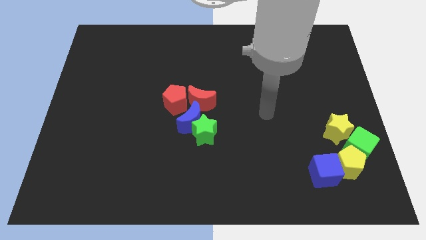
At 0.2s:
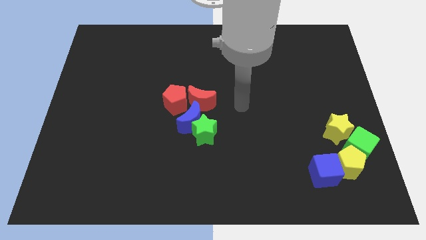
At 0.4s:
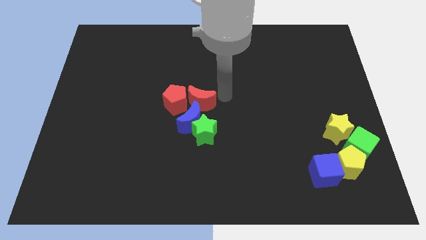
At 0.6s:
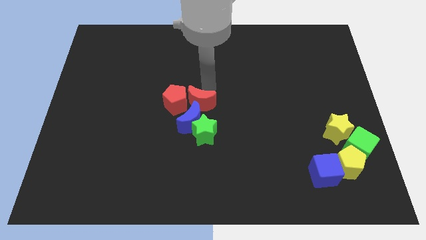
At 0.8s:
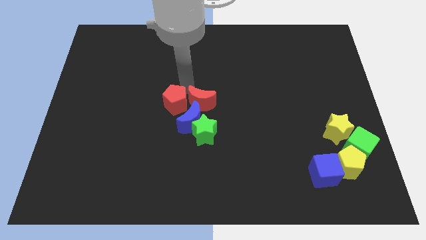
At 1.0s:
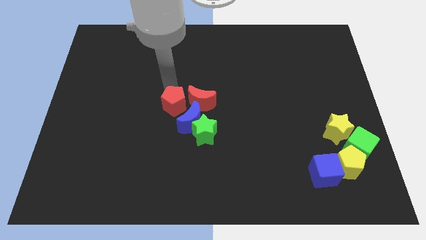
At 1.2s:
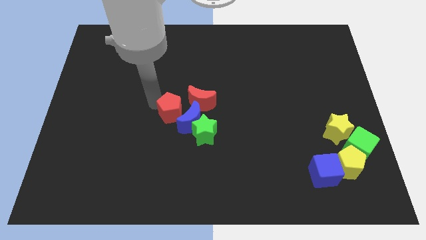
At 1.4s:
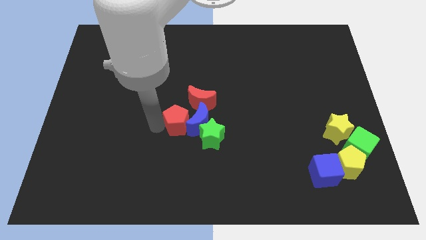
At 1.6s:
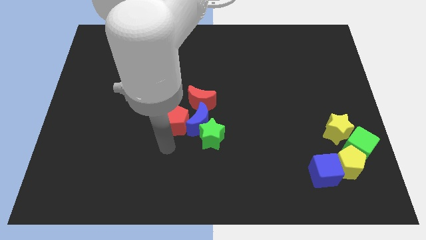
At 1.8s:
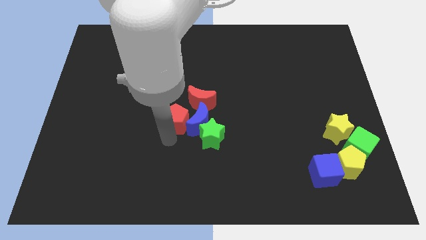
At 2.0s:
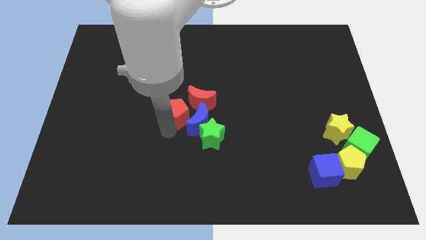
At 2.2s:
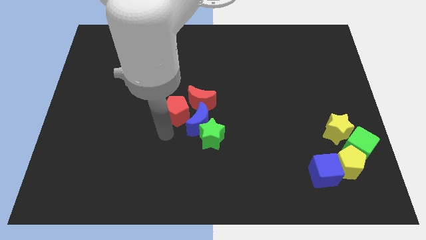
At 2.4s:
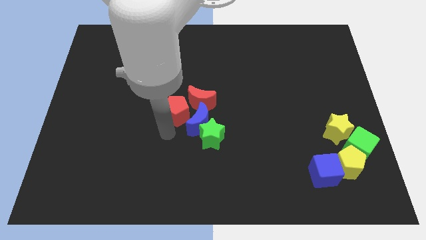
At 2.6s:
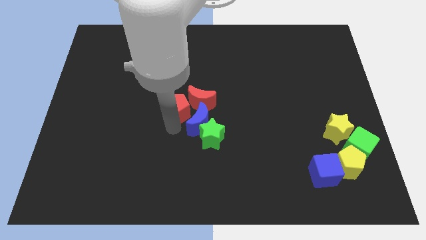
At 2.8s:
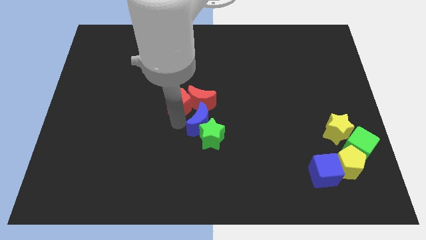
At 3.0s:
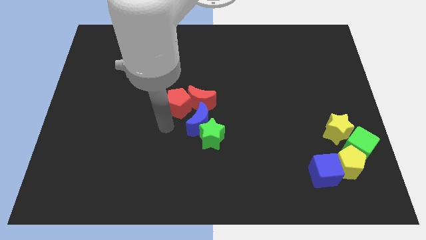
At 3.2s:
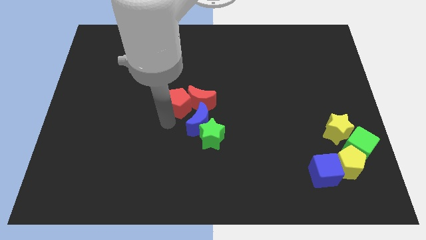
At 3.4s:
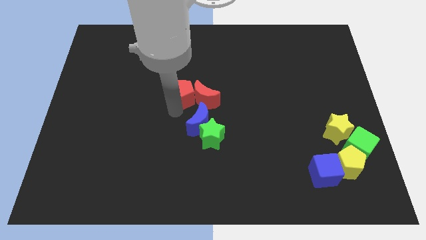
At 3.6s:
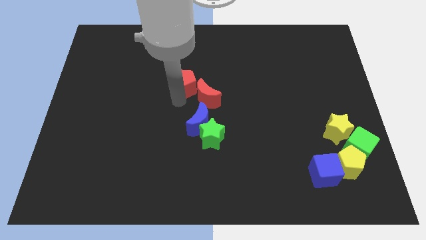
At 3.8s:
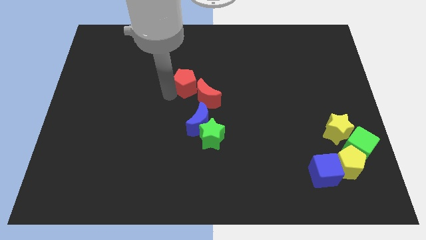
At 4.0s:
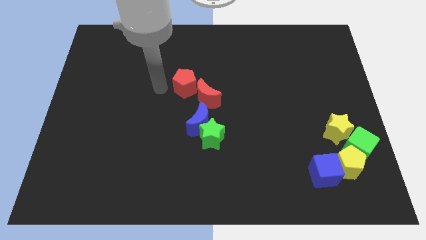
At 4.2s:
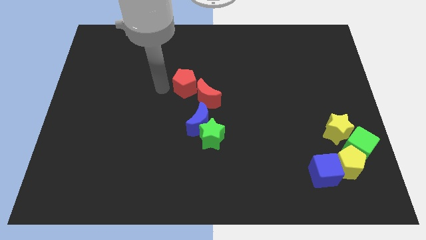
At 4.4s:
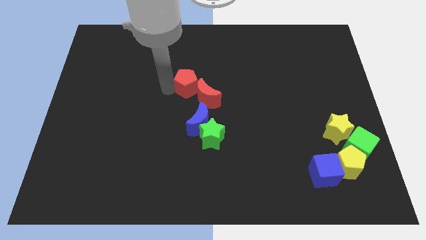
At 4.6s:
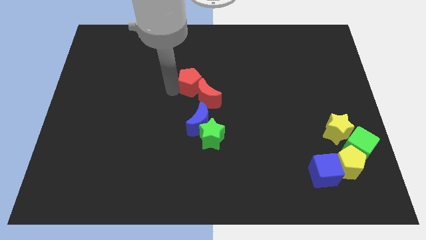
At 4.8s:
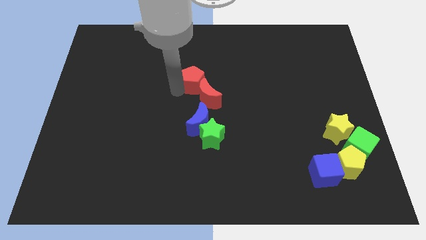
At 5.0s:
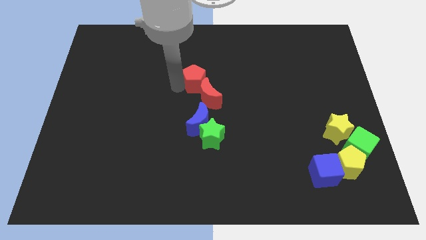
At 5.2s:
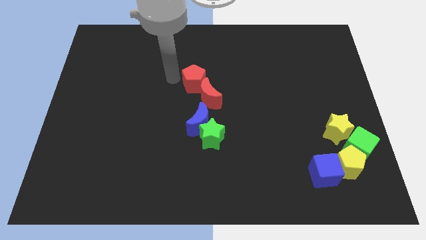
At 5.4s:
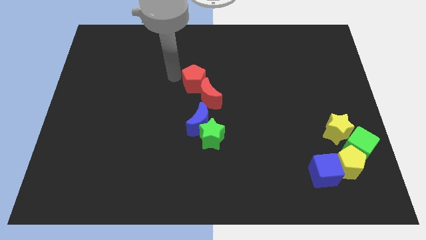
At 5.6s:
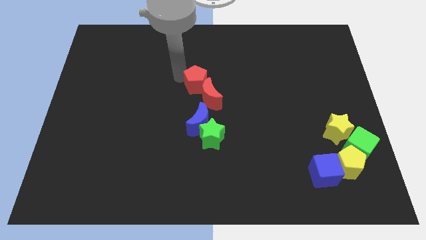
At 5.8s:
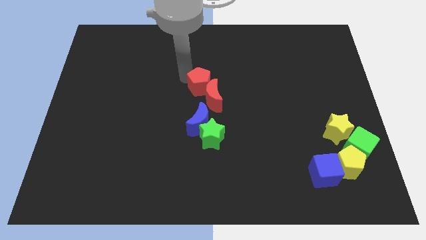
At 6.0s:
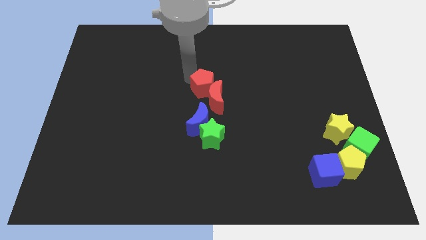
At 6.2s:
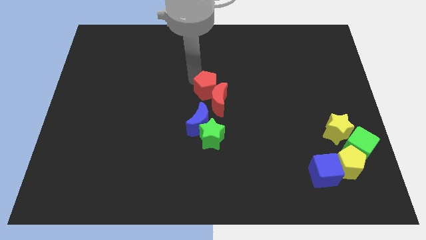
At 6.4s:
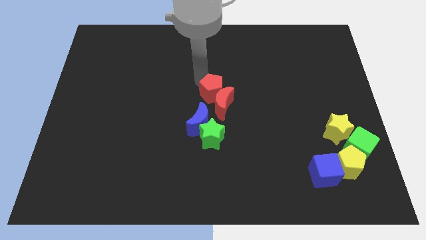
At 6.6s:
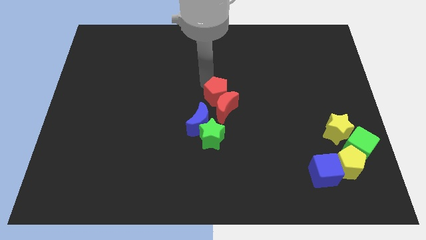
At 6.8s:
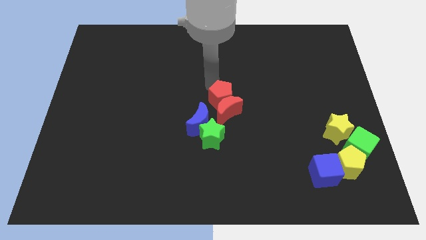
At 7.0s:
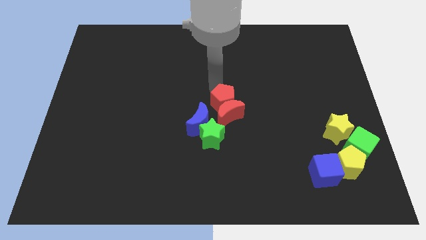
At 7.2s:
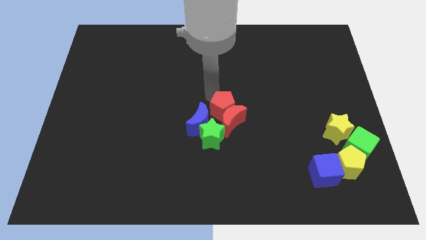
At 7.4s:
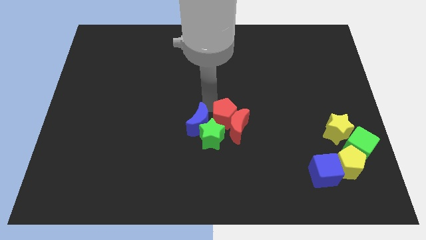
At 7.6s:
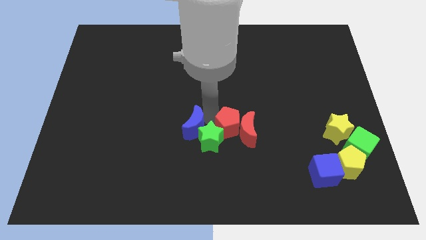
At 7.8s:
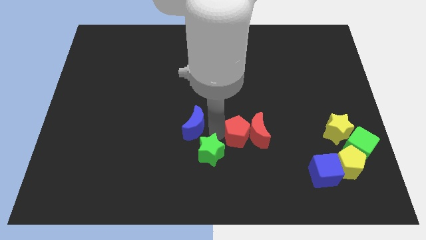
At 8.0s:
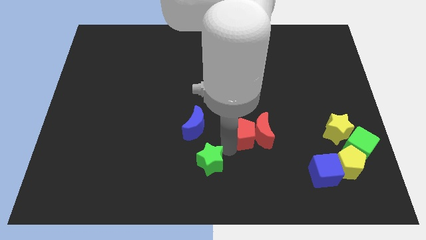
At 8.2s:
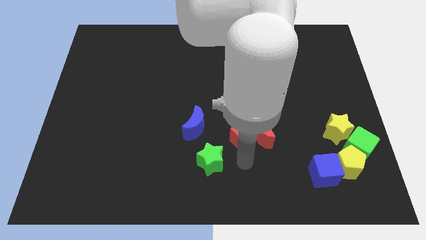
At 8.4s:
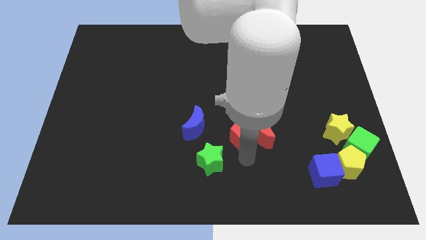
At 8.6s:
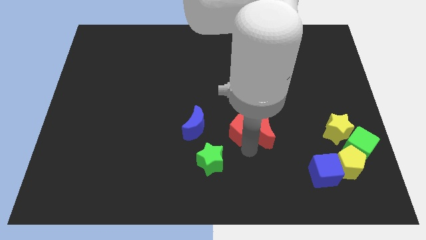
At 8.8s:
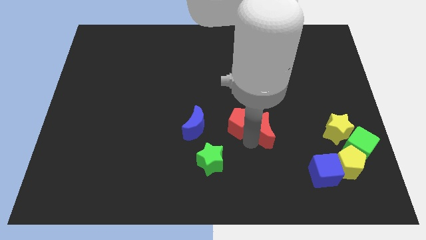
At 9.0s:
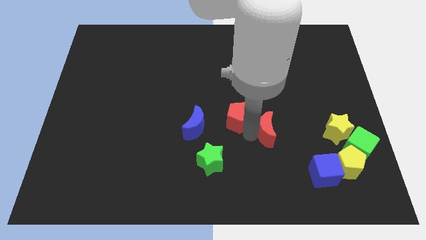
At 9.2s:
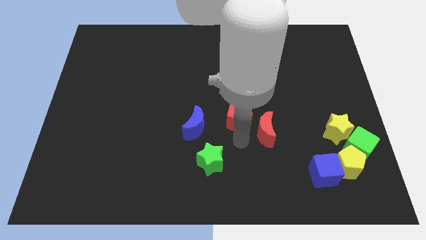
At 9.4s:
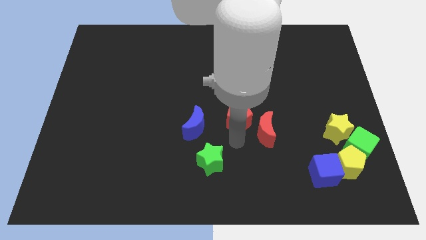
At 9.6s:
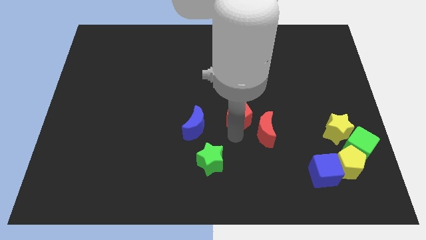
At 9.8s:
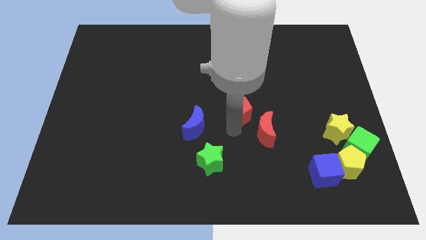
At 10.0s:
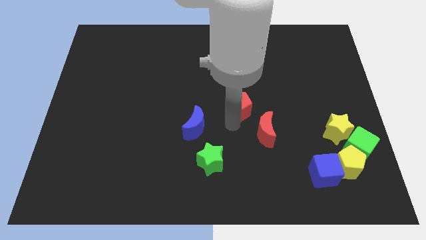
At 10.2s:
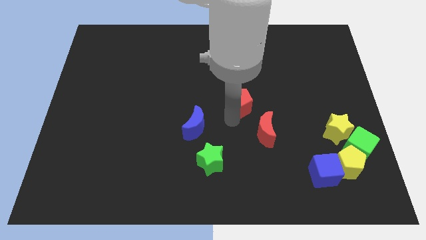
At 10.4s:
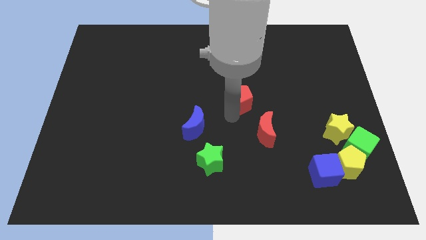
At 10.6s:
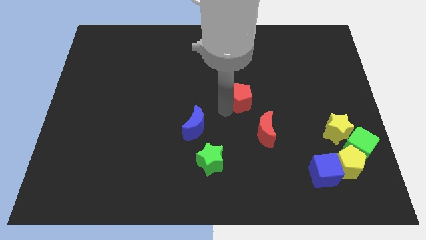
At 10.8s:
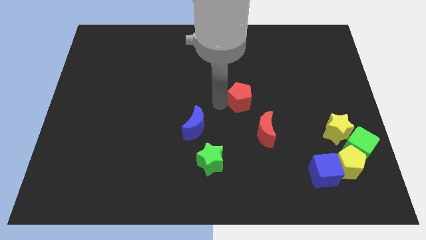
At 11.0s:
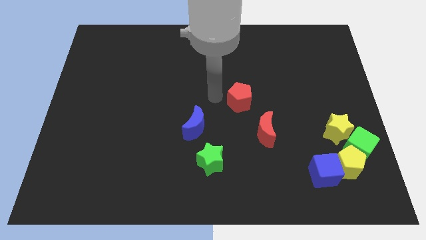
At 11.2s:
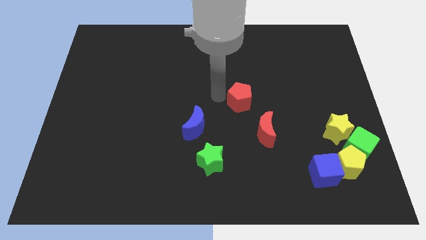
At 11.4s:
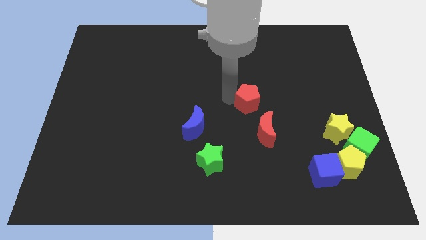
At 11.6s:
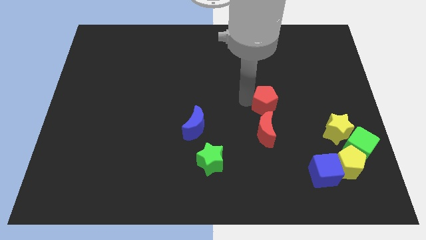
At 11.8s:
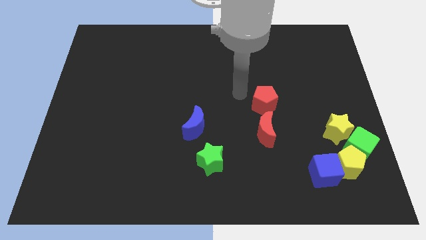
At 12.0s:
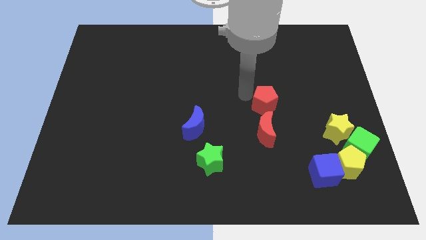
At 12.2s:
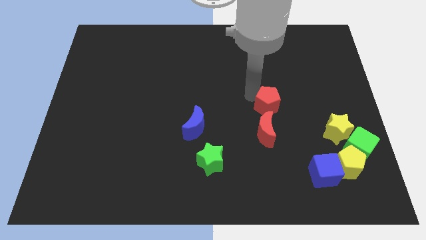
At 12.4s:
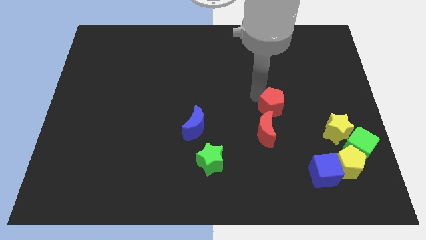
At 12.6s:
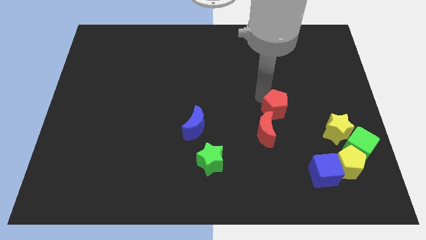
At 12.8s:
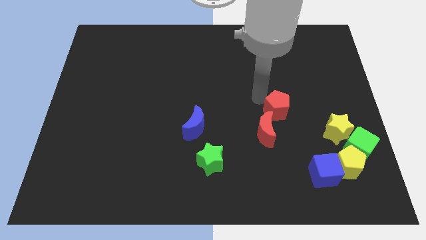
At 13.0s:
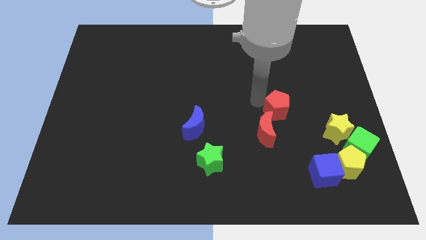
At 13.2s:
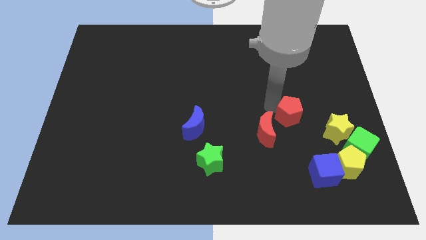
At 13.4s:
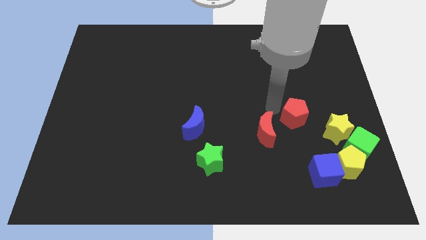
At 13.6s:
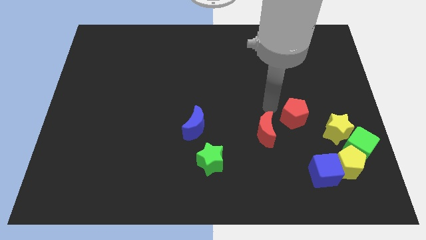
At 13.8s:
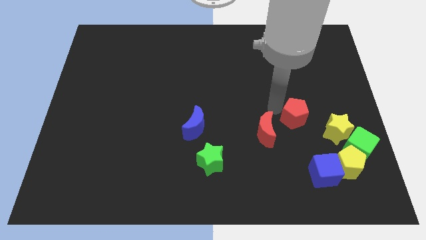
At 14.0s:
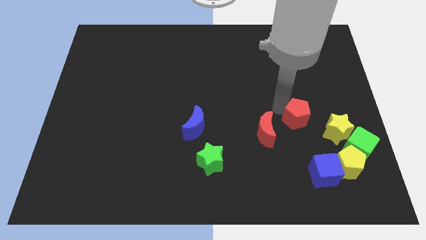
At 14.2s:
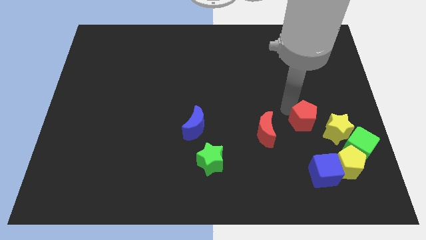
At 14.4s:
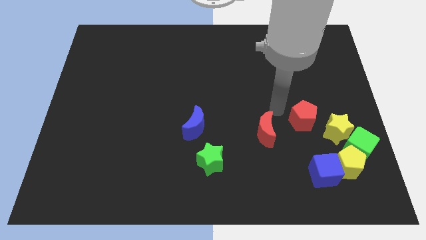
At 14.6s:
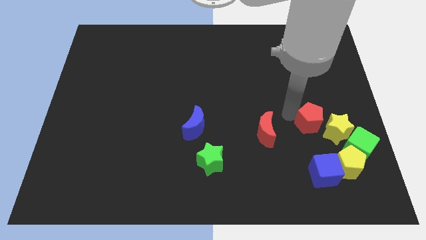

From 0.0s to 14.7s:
move the red pentagon to the yellow star

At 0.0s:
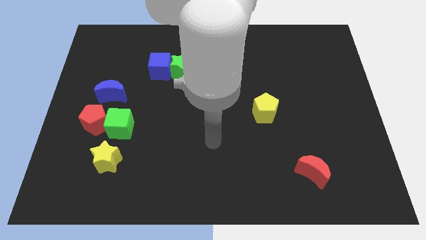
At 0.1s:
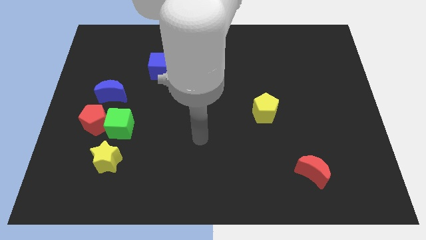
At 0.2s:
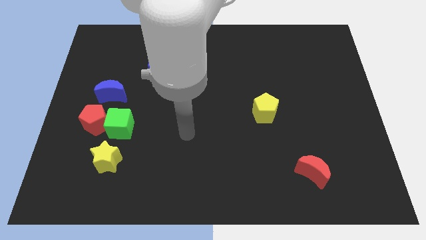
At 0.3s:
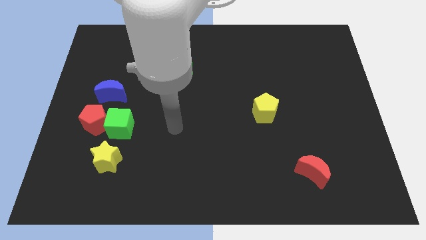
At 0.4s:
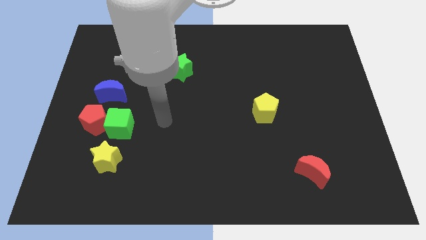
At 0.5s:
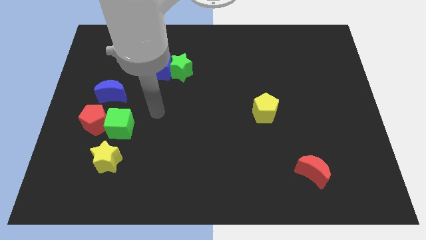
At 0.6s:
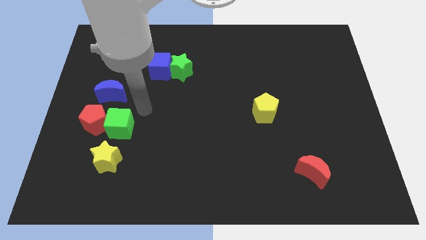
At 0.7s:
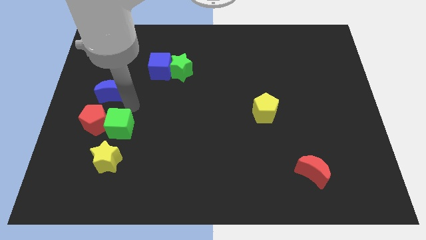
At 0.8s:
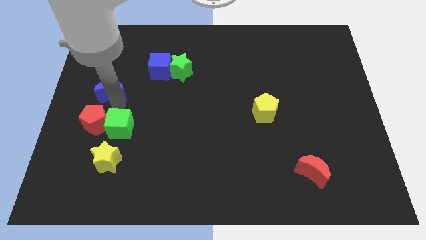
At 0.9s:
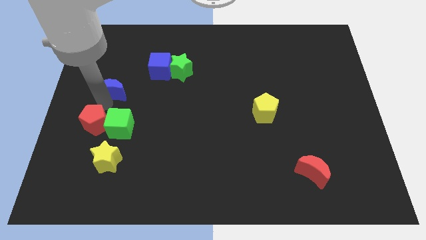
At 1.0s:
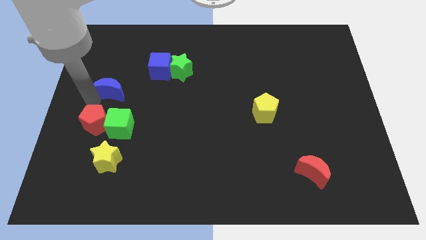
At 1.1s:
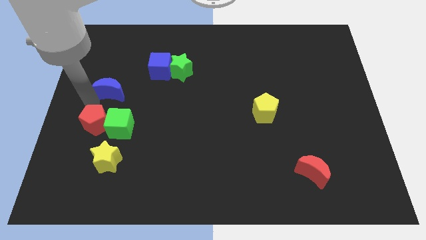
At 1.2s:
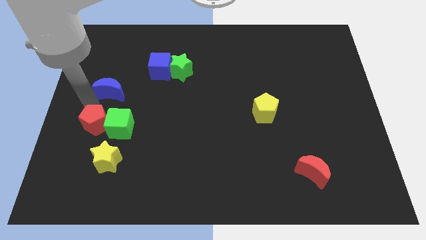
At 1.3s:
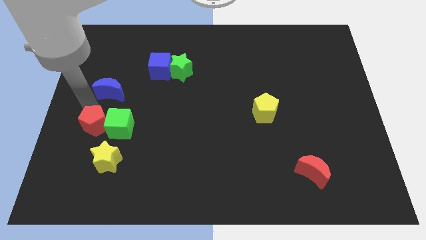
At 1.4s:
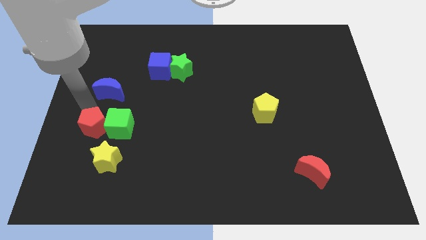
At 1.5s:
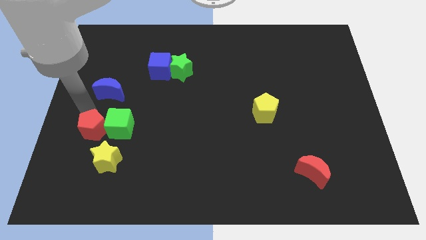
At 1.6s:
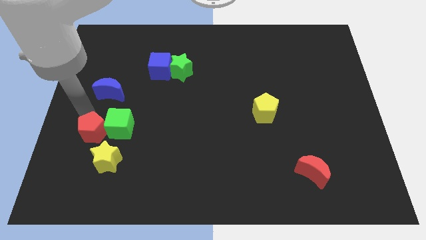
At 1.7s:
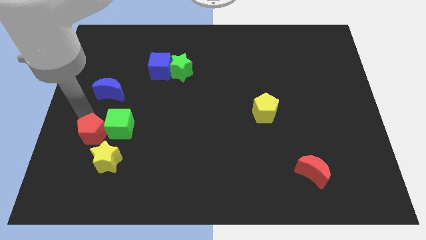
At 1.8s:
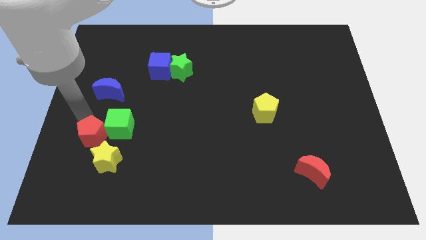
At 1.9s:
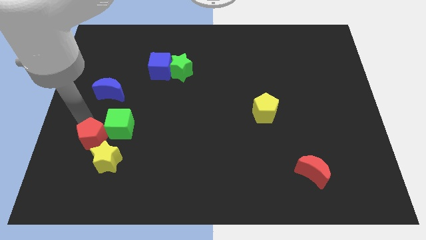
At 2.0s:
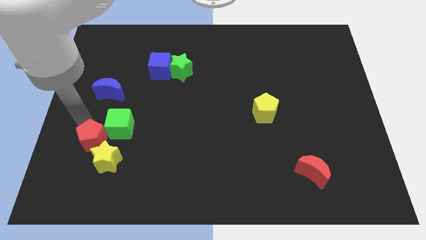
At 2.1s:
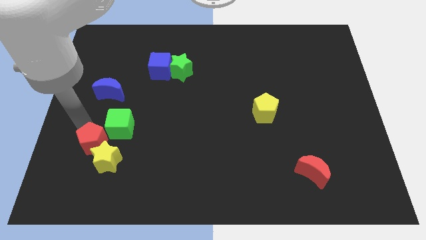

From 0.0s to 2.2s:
move the red pentagon towards the yellow star
